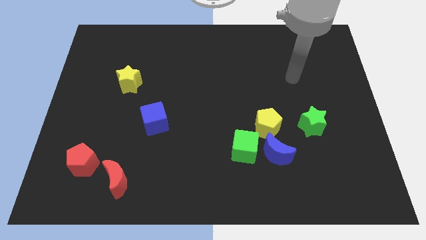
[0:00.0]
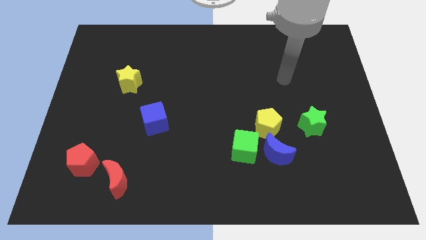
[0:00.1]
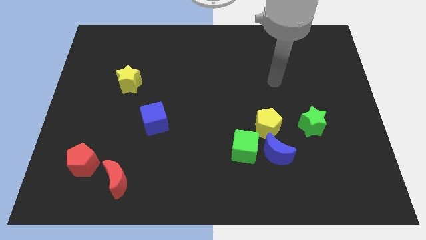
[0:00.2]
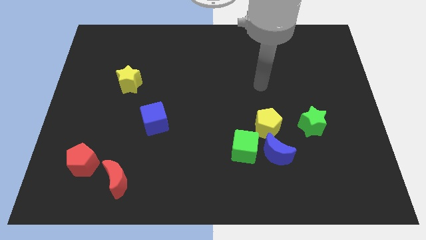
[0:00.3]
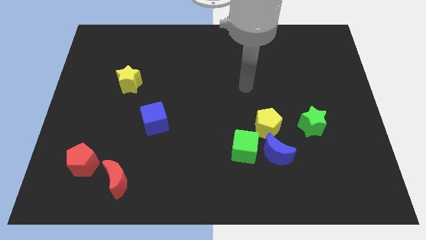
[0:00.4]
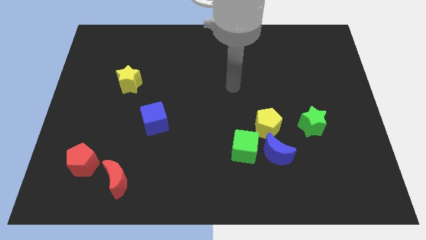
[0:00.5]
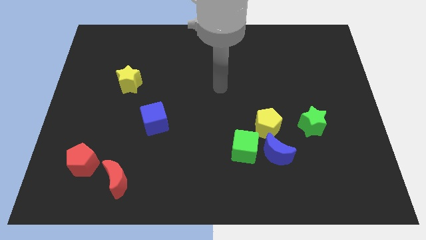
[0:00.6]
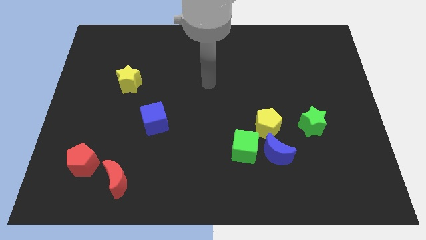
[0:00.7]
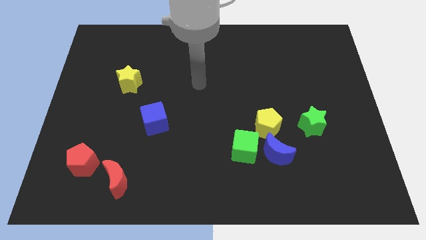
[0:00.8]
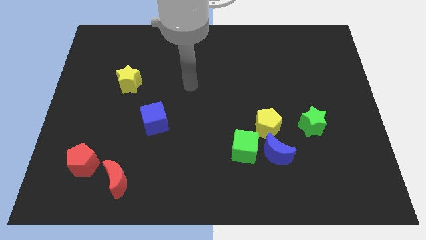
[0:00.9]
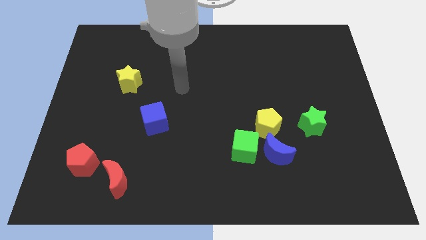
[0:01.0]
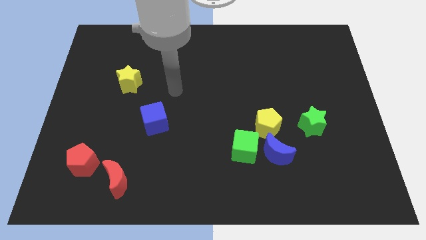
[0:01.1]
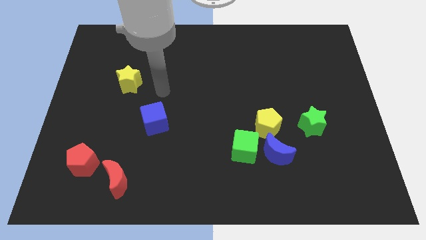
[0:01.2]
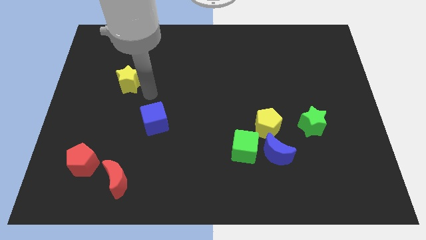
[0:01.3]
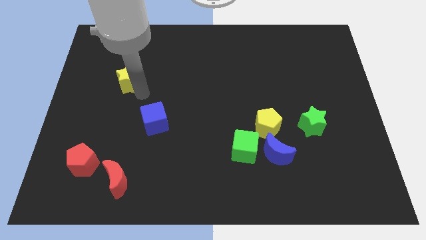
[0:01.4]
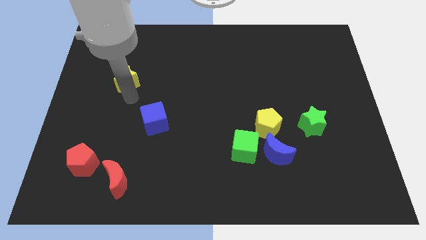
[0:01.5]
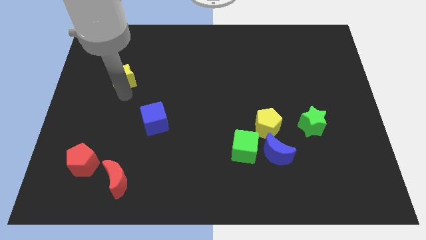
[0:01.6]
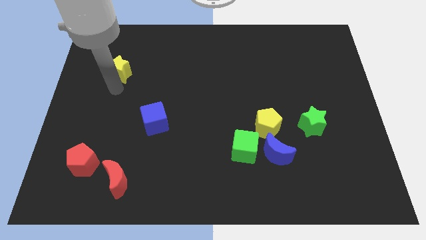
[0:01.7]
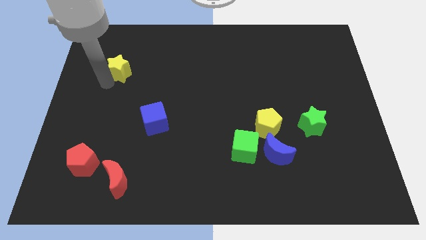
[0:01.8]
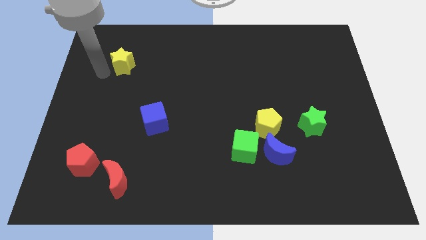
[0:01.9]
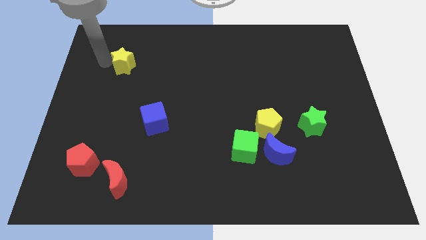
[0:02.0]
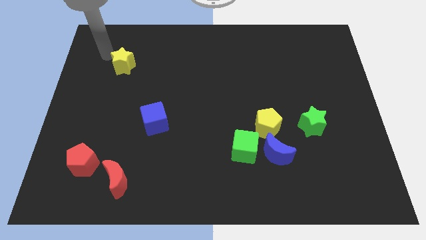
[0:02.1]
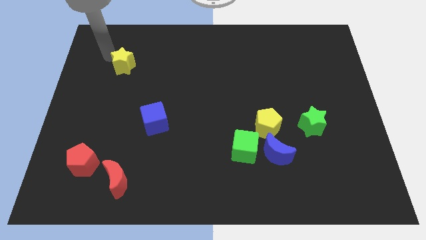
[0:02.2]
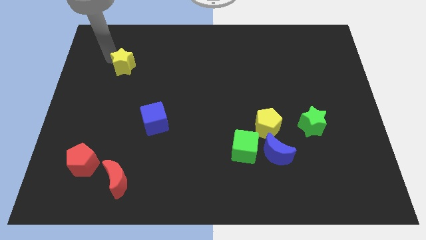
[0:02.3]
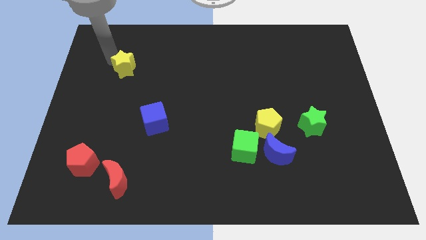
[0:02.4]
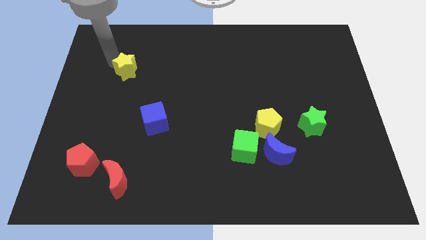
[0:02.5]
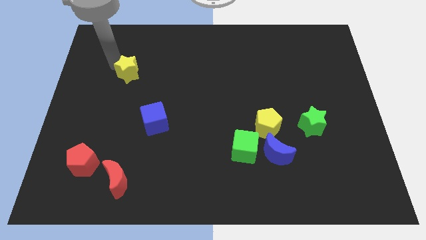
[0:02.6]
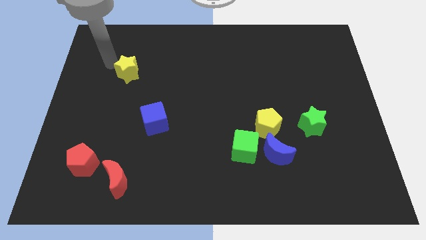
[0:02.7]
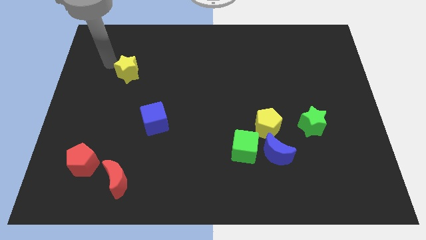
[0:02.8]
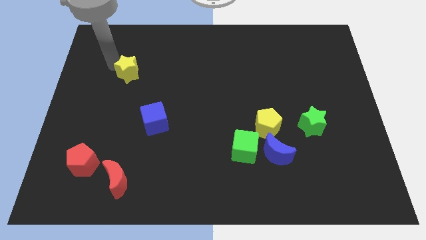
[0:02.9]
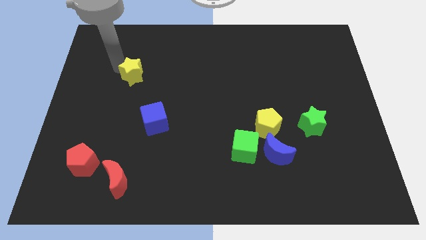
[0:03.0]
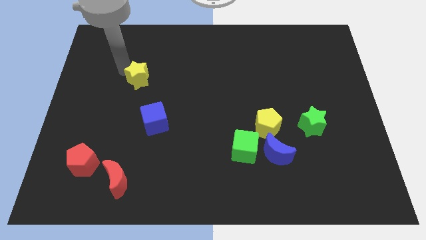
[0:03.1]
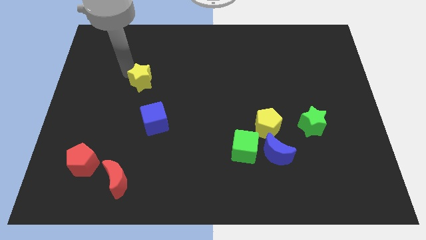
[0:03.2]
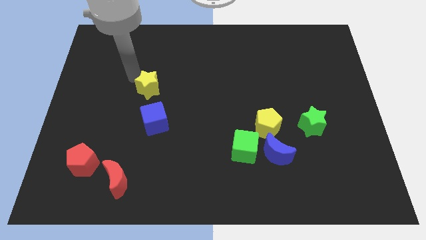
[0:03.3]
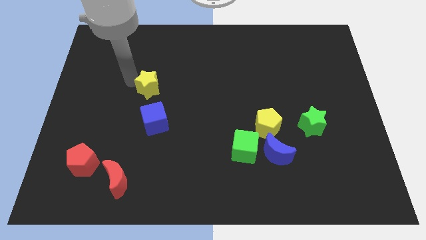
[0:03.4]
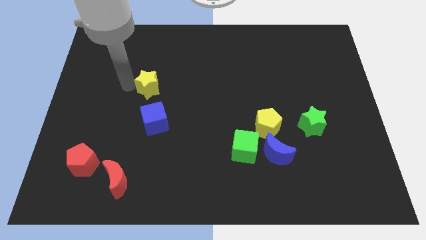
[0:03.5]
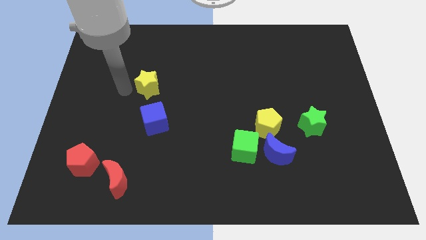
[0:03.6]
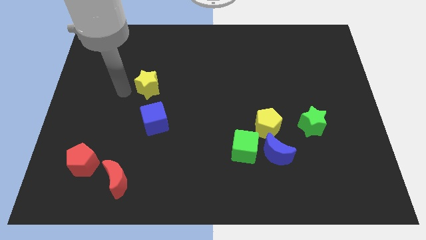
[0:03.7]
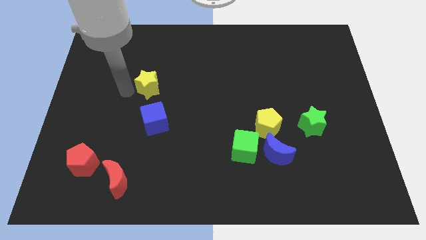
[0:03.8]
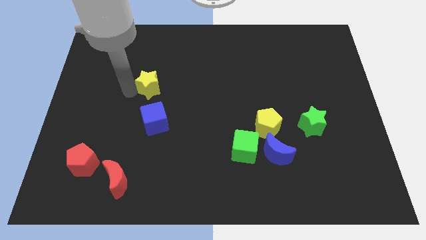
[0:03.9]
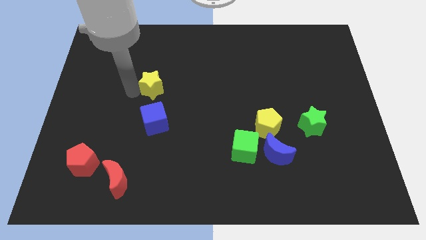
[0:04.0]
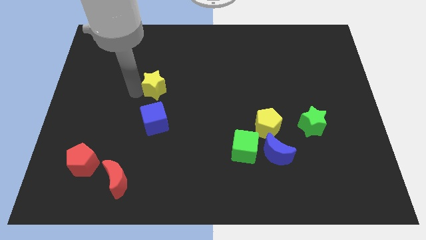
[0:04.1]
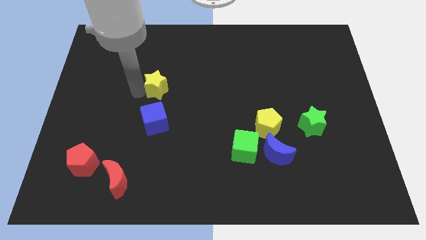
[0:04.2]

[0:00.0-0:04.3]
move the yellow star to the right slightly

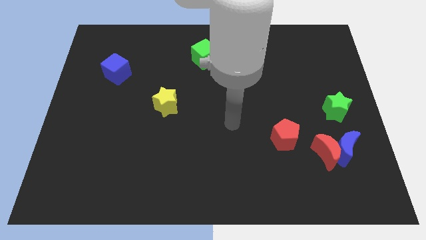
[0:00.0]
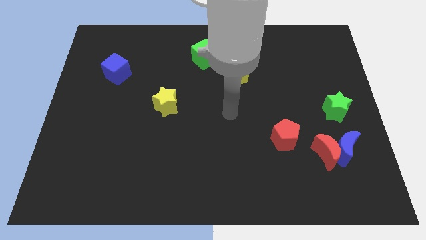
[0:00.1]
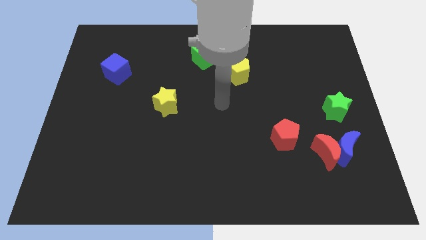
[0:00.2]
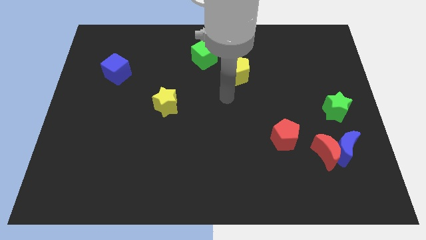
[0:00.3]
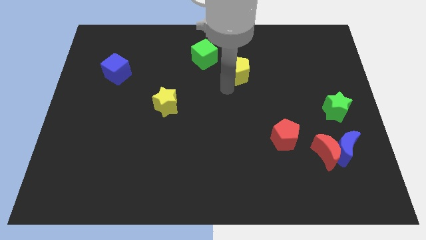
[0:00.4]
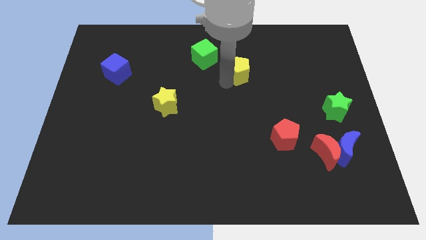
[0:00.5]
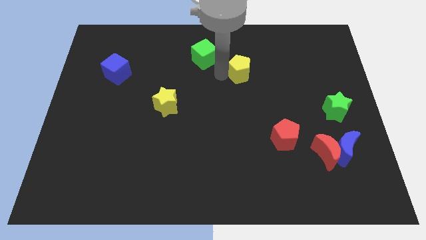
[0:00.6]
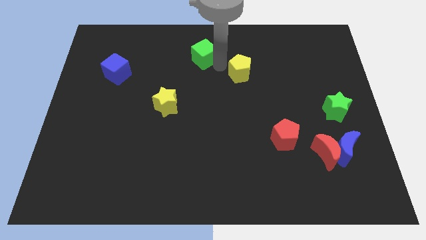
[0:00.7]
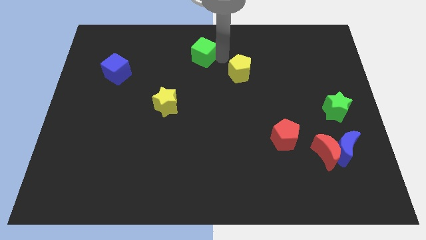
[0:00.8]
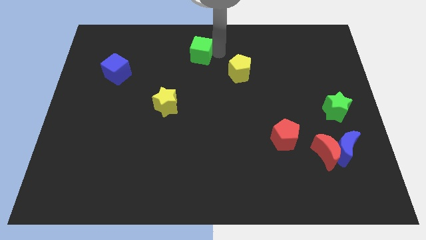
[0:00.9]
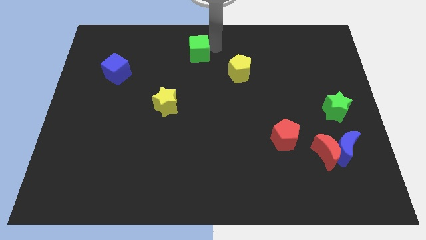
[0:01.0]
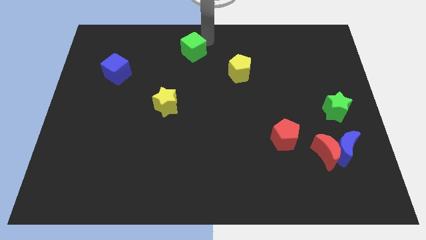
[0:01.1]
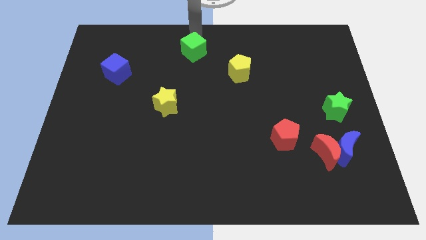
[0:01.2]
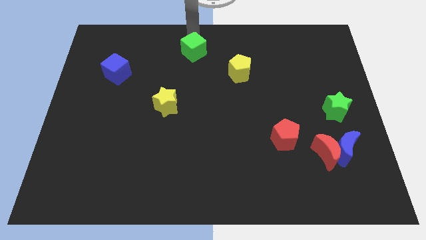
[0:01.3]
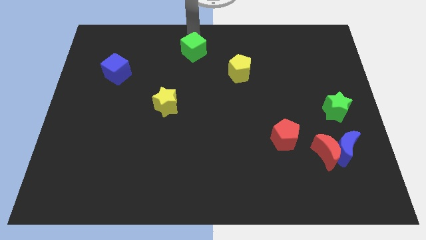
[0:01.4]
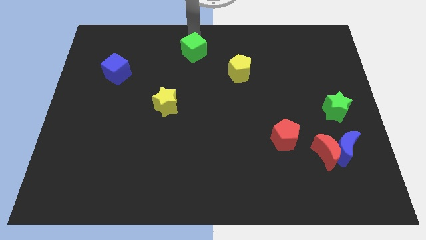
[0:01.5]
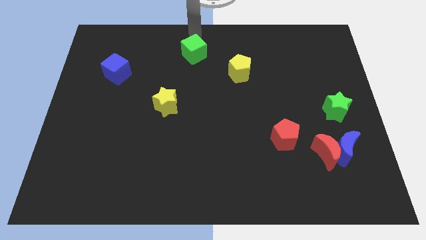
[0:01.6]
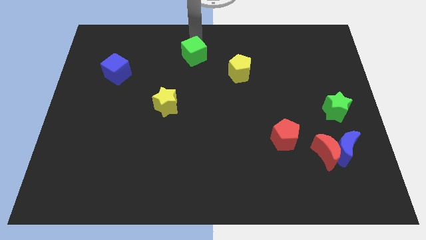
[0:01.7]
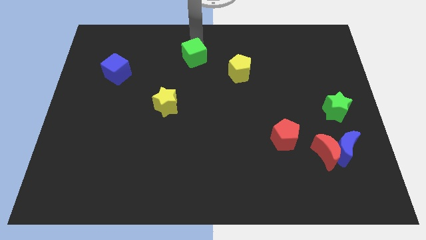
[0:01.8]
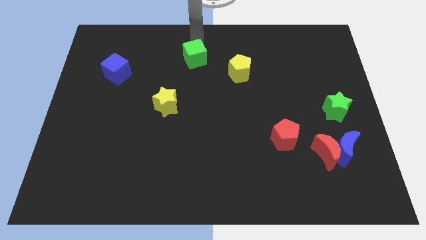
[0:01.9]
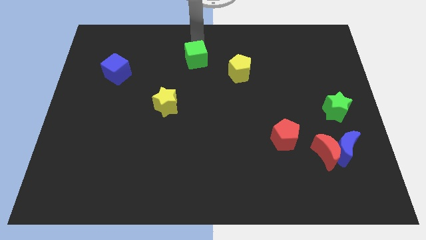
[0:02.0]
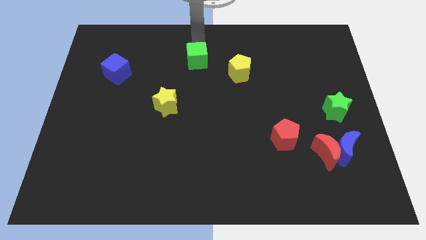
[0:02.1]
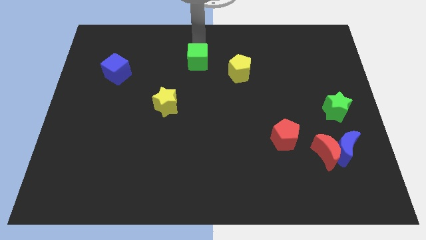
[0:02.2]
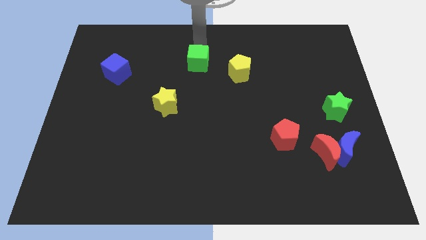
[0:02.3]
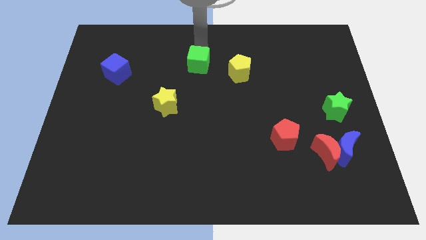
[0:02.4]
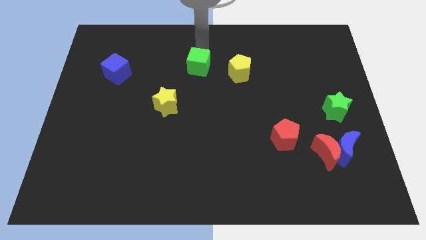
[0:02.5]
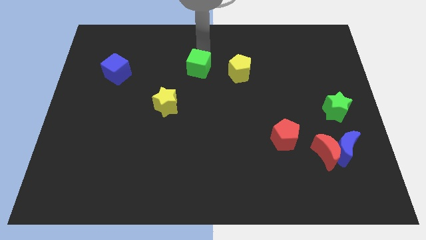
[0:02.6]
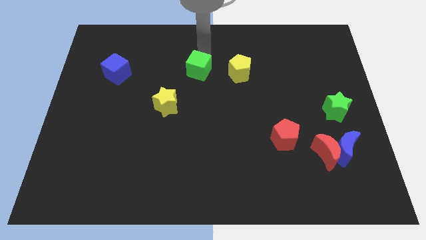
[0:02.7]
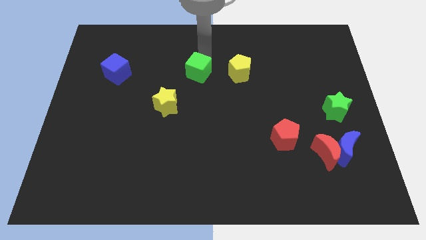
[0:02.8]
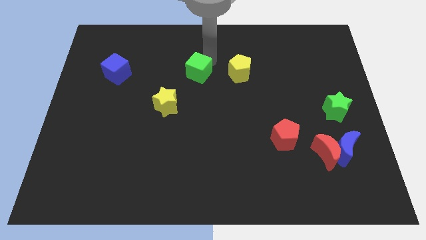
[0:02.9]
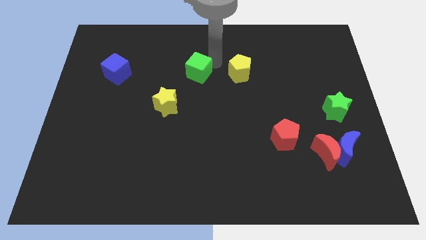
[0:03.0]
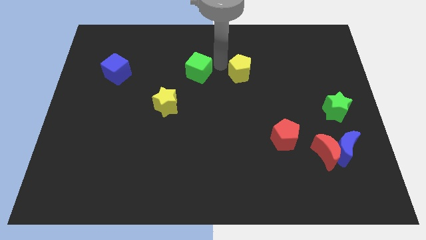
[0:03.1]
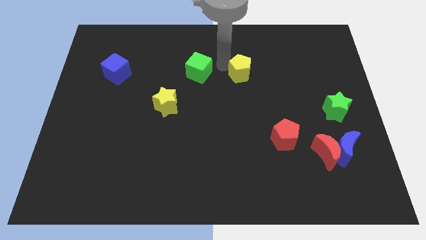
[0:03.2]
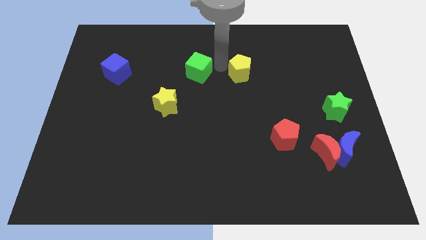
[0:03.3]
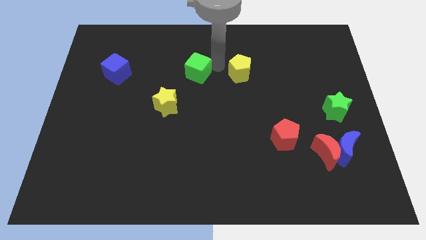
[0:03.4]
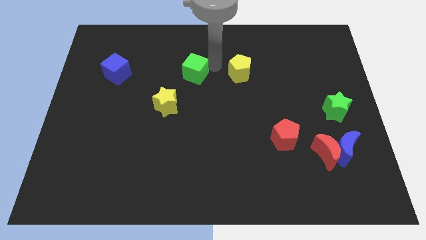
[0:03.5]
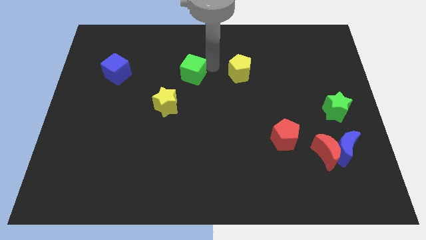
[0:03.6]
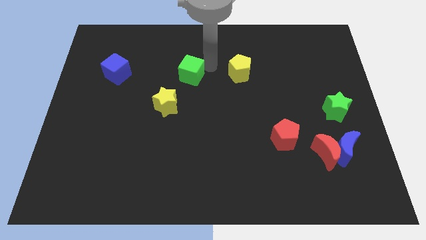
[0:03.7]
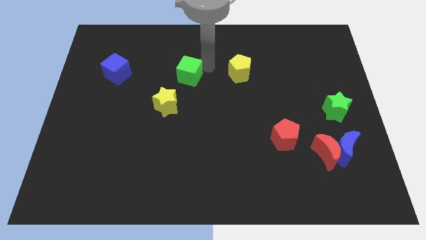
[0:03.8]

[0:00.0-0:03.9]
push the green cube down and to the left somewhat
